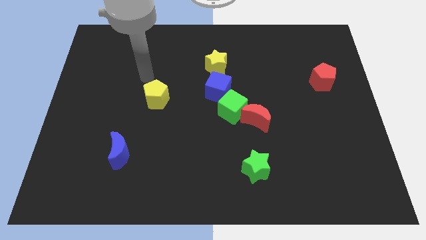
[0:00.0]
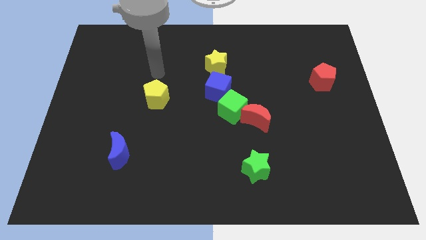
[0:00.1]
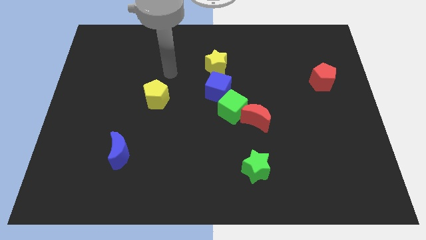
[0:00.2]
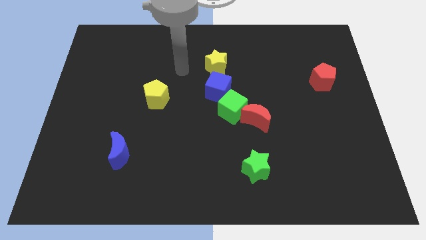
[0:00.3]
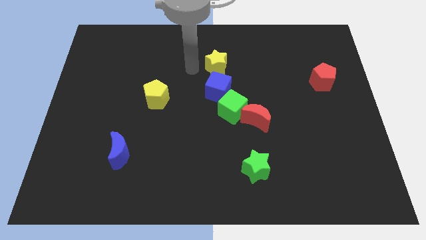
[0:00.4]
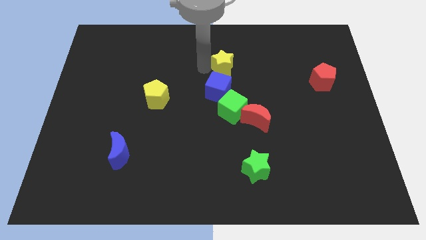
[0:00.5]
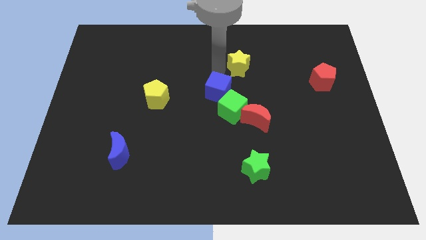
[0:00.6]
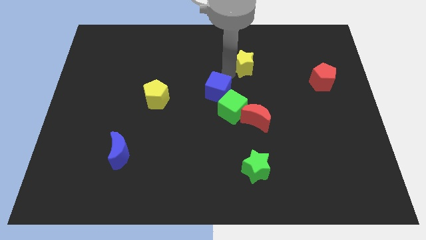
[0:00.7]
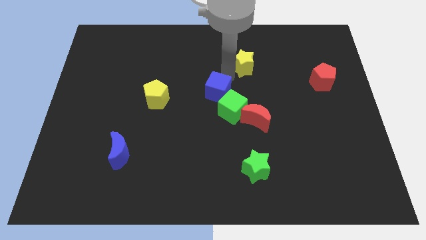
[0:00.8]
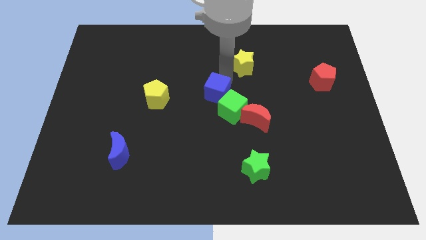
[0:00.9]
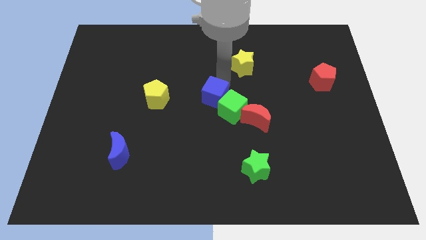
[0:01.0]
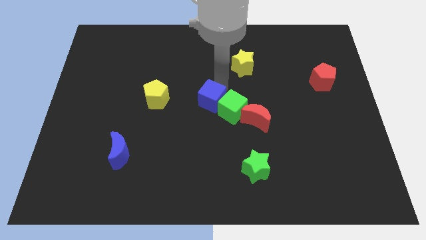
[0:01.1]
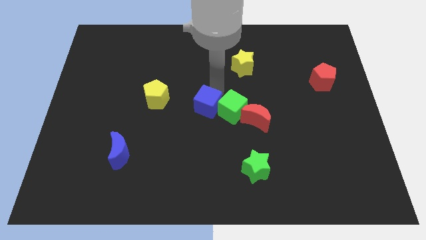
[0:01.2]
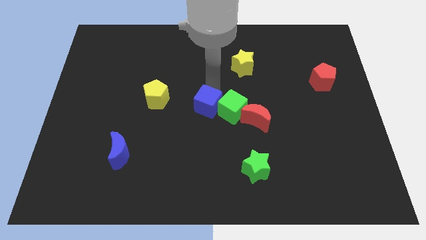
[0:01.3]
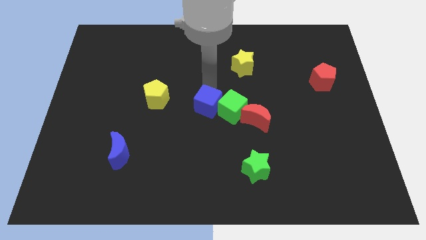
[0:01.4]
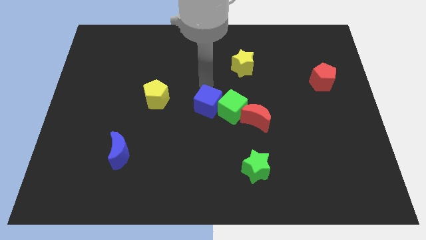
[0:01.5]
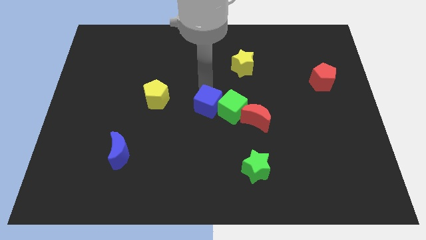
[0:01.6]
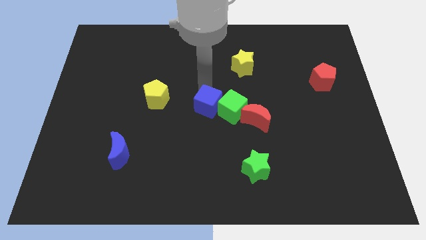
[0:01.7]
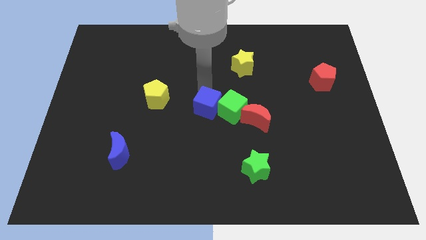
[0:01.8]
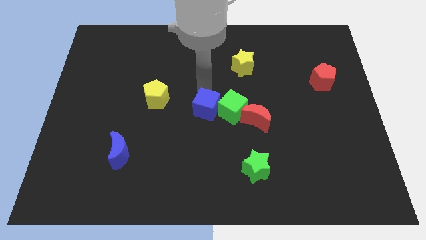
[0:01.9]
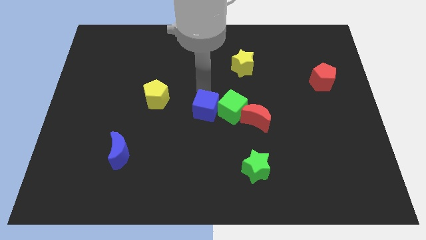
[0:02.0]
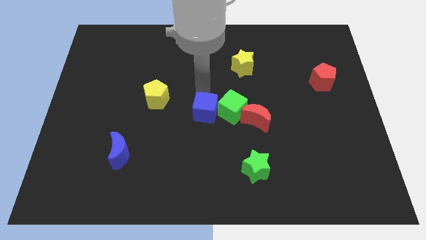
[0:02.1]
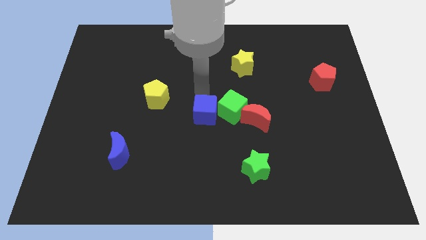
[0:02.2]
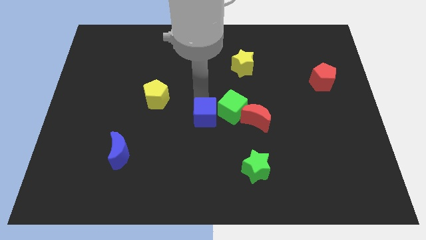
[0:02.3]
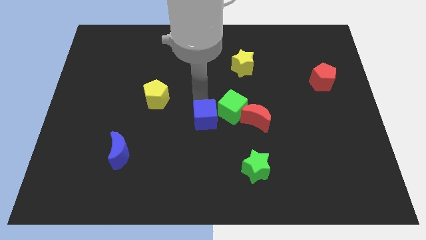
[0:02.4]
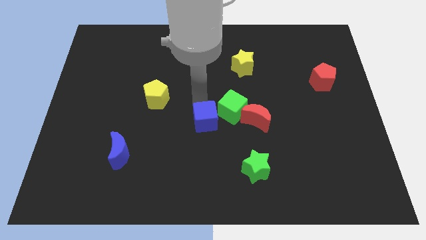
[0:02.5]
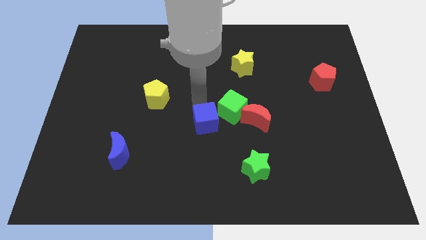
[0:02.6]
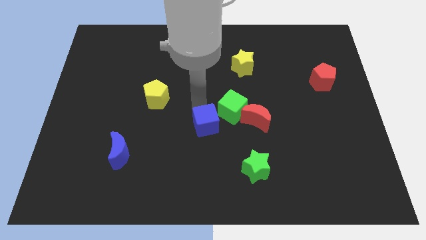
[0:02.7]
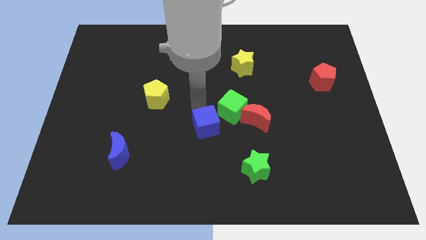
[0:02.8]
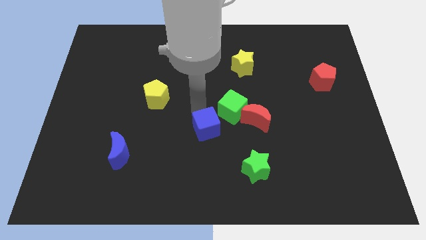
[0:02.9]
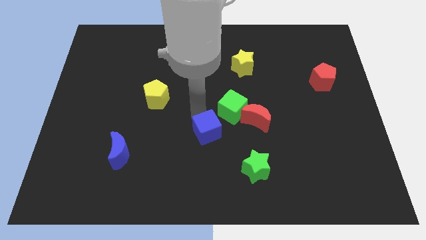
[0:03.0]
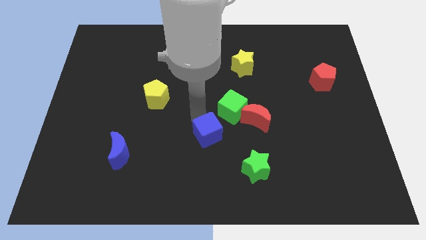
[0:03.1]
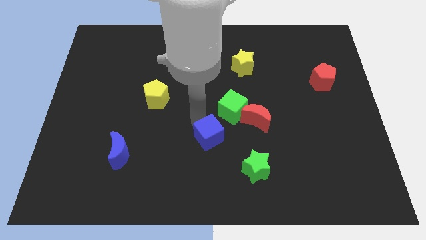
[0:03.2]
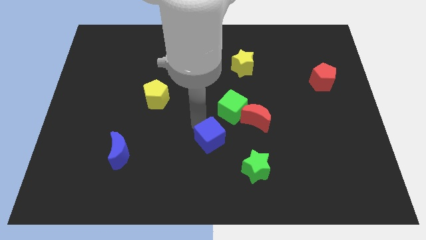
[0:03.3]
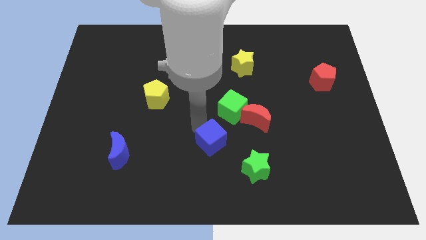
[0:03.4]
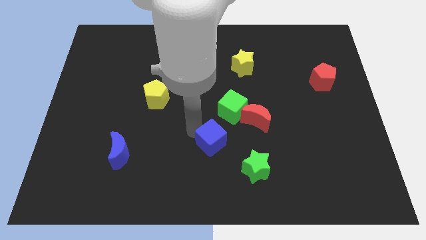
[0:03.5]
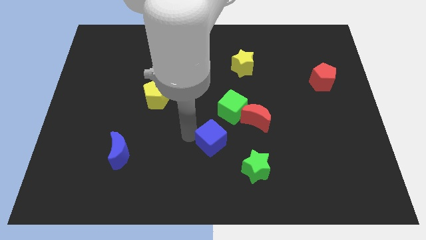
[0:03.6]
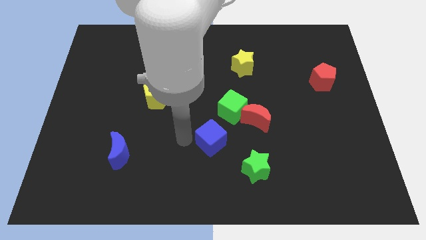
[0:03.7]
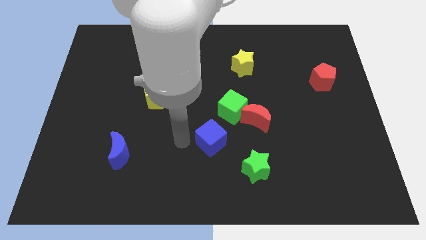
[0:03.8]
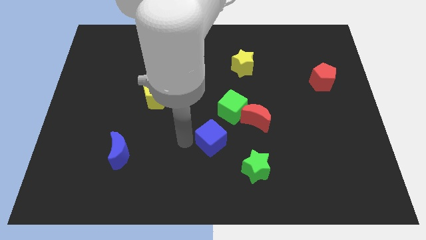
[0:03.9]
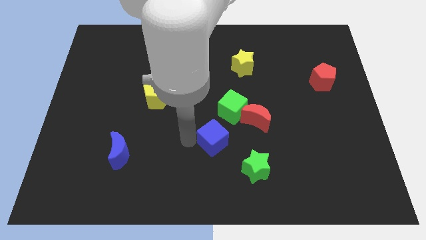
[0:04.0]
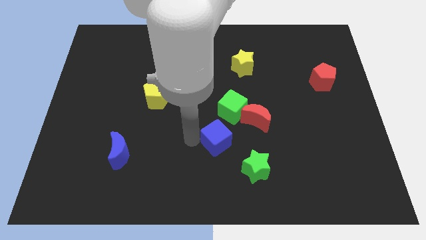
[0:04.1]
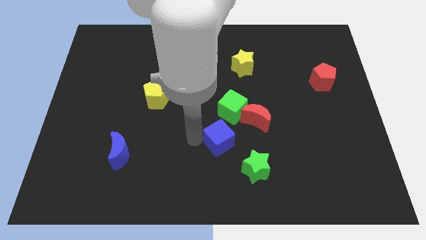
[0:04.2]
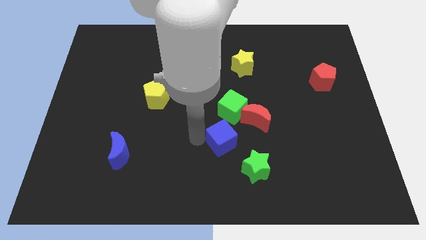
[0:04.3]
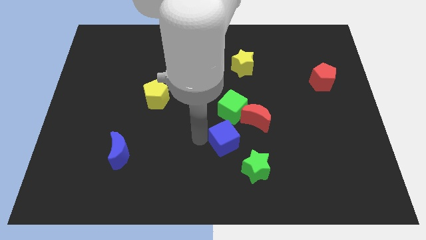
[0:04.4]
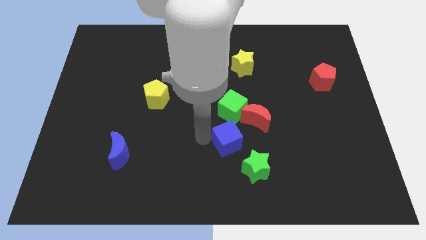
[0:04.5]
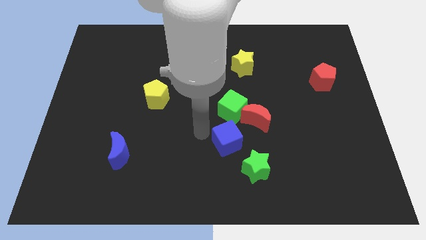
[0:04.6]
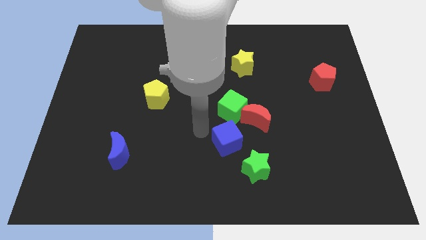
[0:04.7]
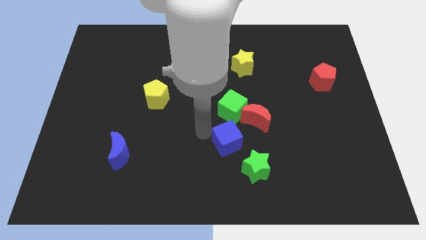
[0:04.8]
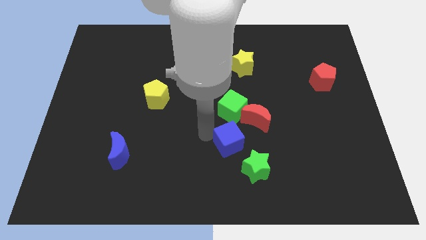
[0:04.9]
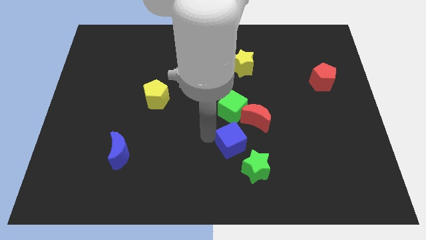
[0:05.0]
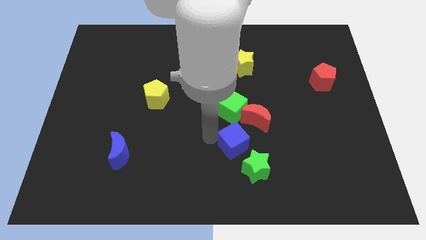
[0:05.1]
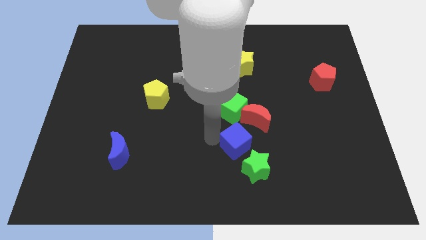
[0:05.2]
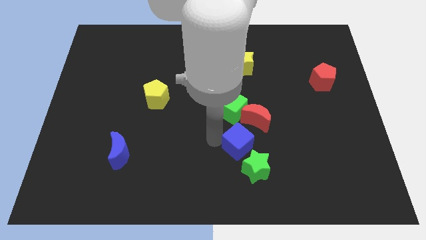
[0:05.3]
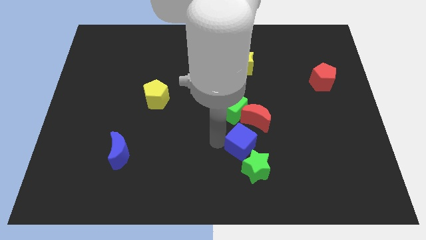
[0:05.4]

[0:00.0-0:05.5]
put the blue cube close to the green star

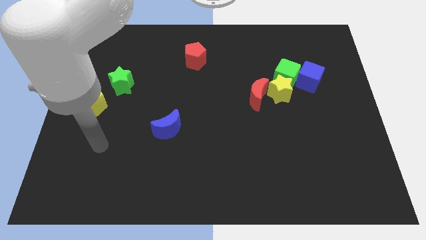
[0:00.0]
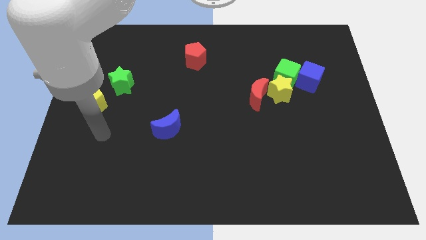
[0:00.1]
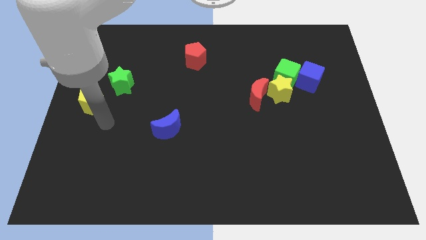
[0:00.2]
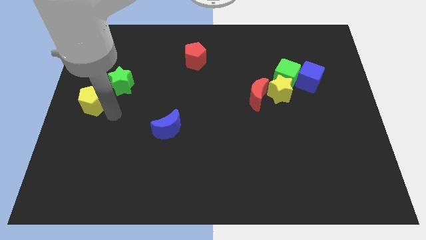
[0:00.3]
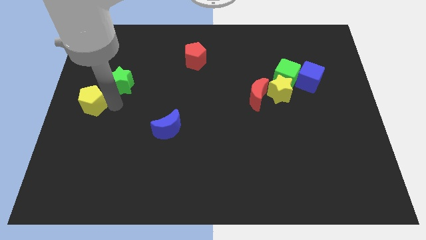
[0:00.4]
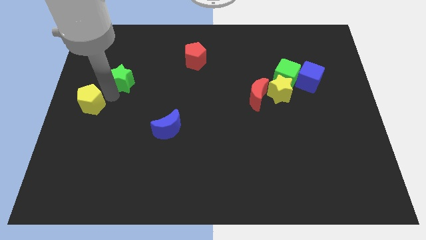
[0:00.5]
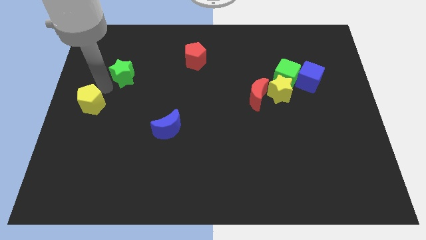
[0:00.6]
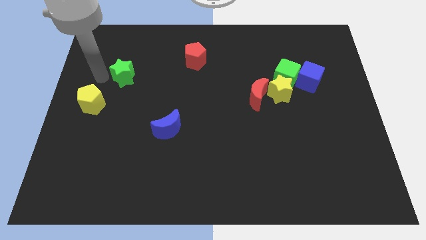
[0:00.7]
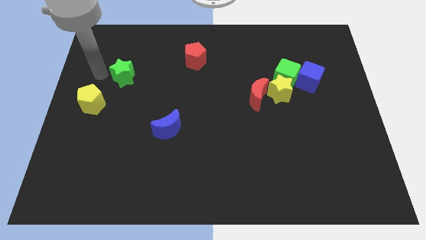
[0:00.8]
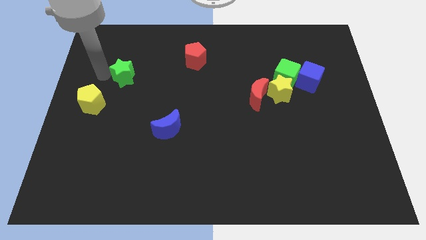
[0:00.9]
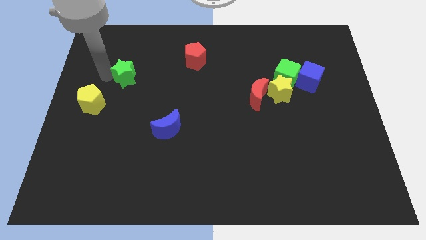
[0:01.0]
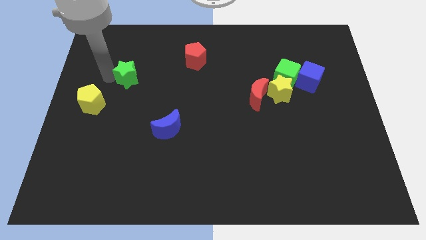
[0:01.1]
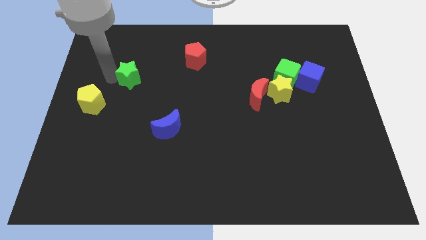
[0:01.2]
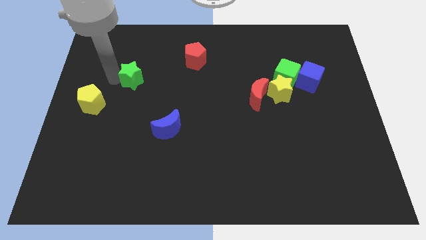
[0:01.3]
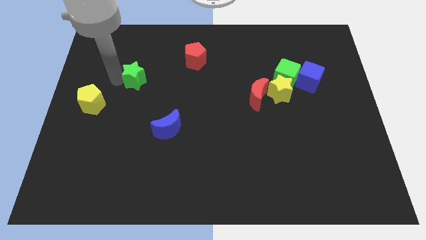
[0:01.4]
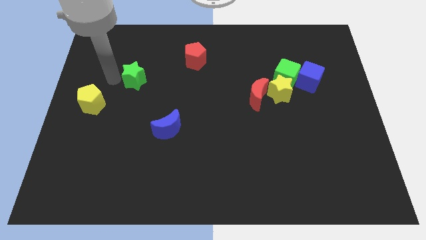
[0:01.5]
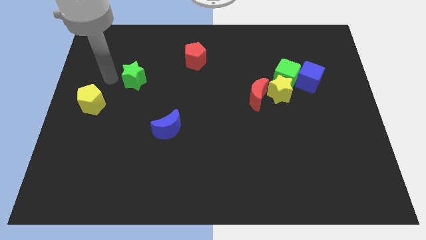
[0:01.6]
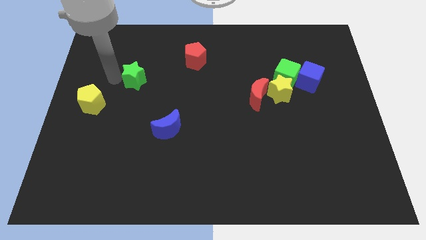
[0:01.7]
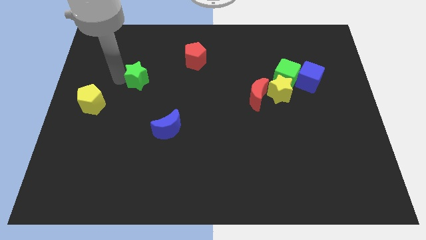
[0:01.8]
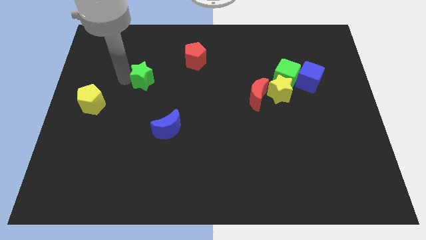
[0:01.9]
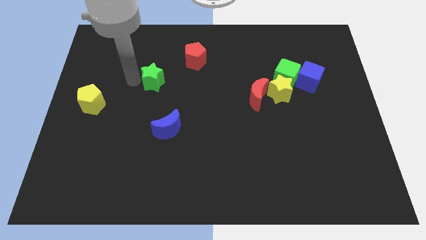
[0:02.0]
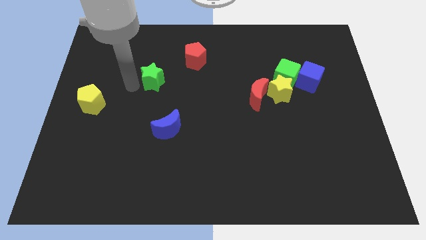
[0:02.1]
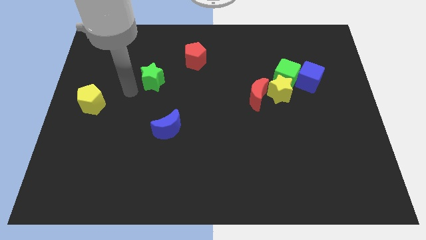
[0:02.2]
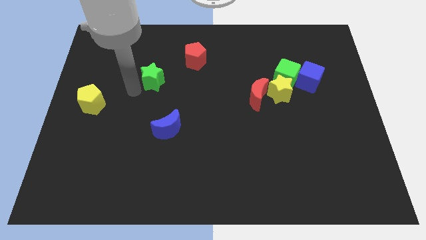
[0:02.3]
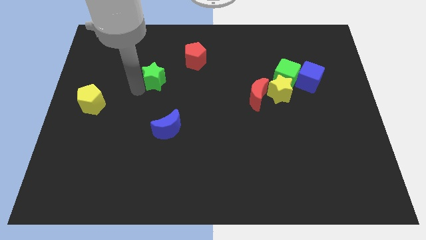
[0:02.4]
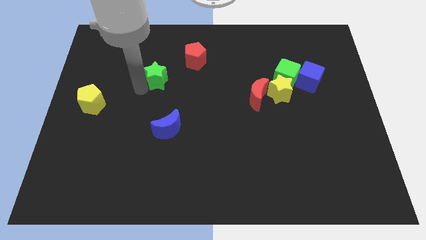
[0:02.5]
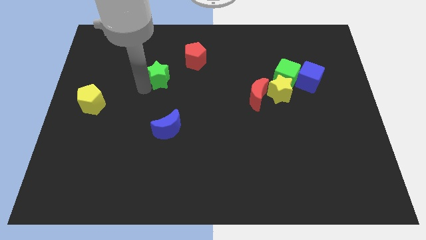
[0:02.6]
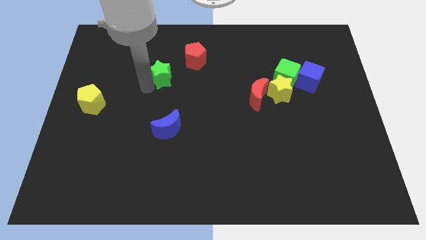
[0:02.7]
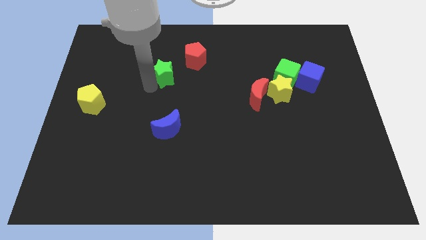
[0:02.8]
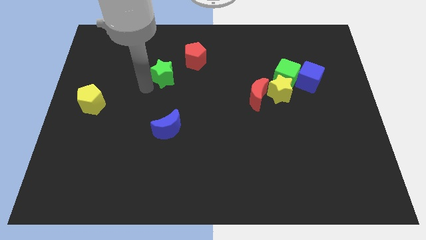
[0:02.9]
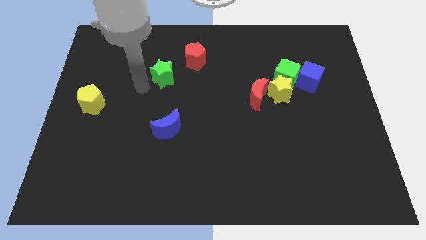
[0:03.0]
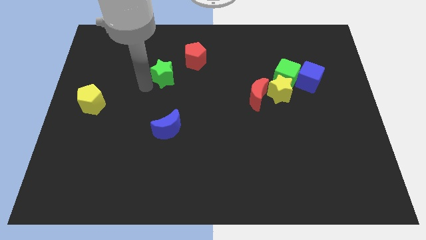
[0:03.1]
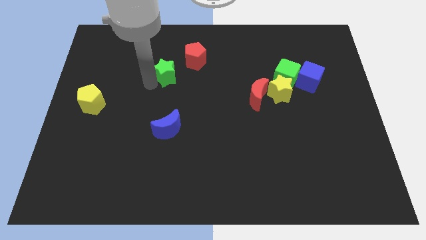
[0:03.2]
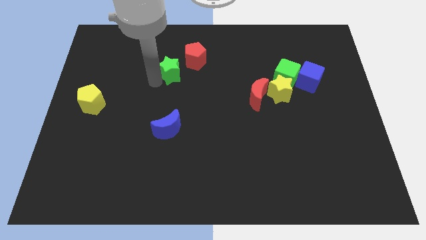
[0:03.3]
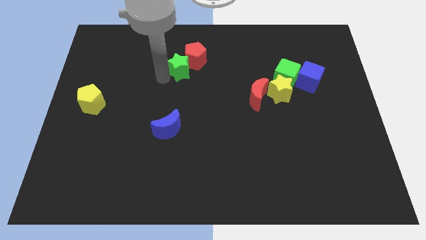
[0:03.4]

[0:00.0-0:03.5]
push the green star to the red pentagon
